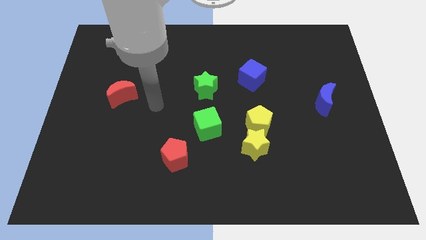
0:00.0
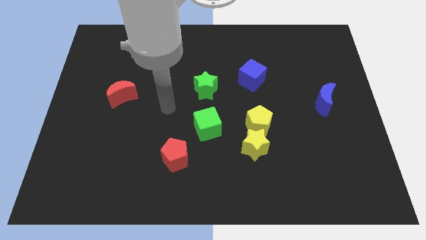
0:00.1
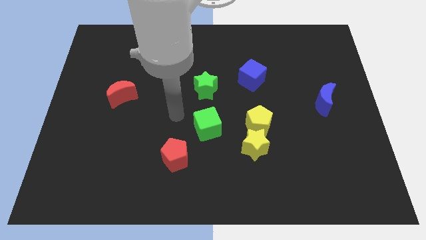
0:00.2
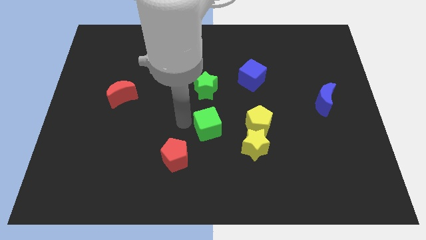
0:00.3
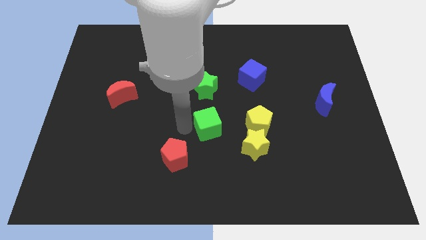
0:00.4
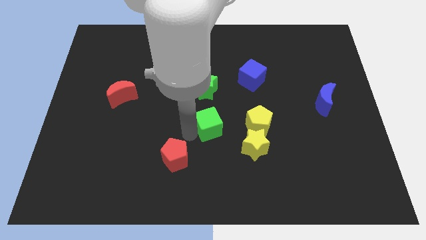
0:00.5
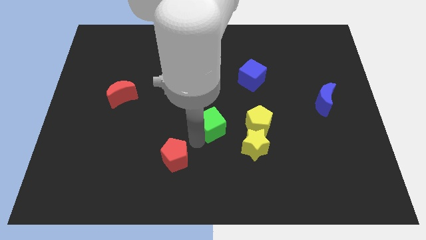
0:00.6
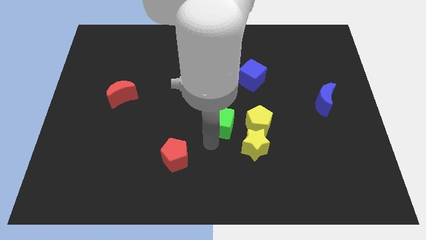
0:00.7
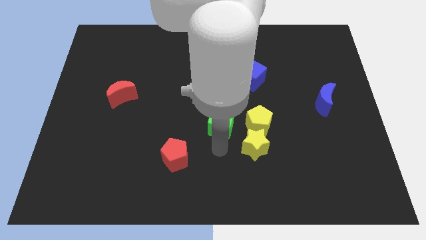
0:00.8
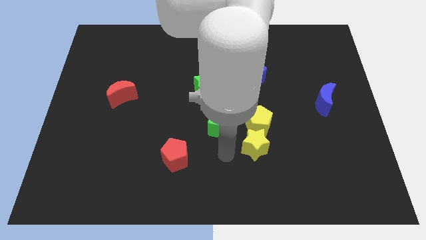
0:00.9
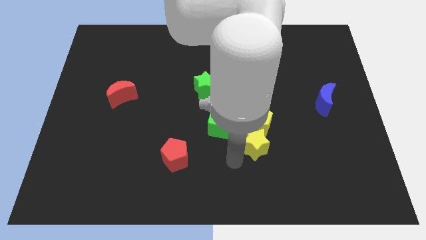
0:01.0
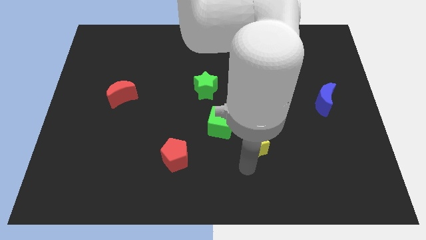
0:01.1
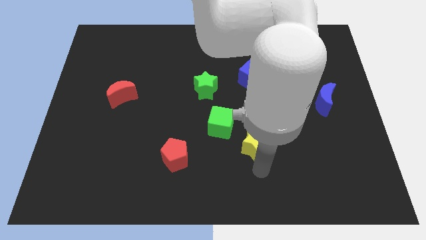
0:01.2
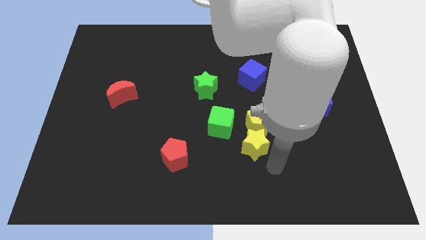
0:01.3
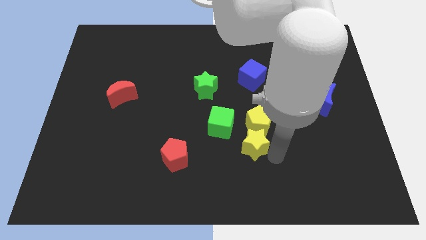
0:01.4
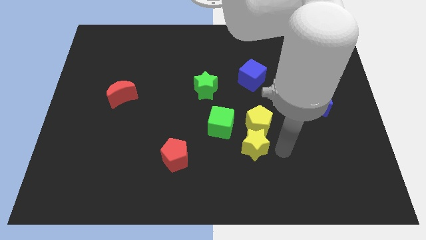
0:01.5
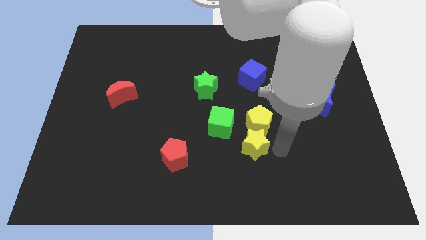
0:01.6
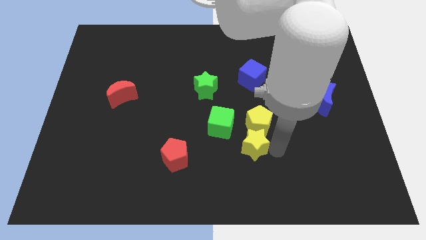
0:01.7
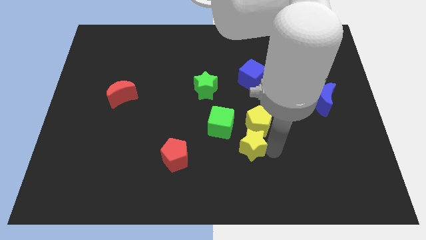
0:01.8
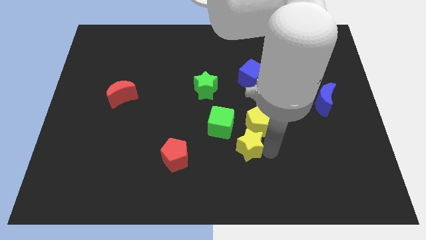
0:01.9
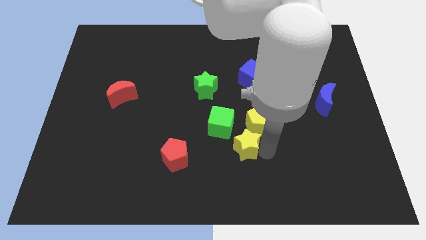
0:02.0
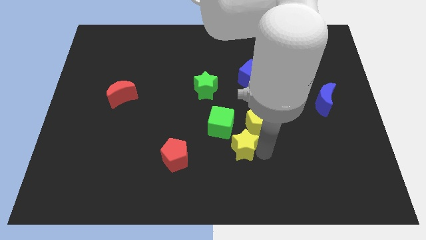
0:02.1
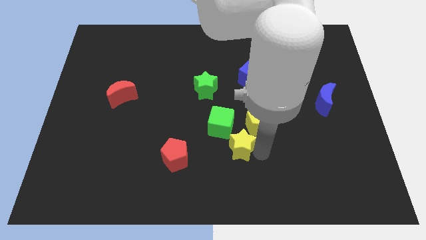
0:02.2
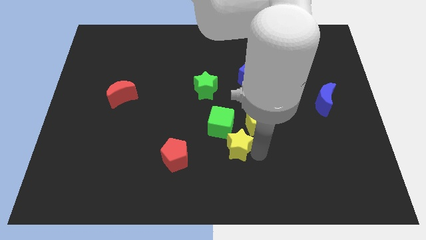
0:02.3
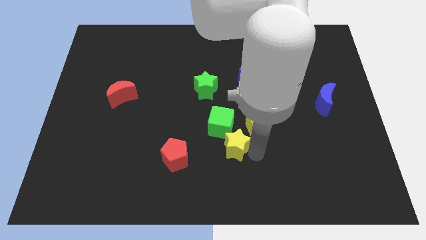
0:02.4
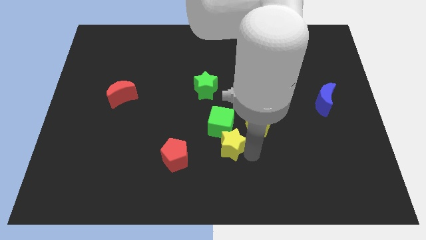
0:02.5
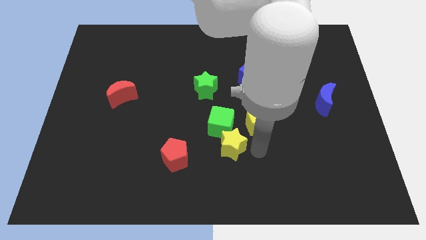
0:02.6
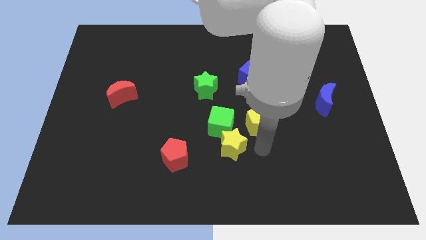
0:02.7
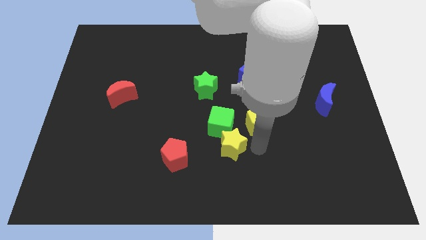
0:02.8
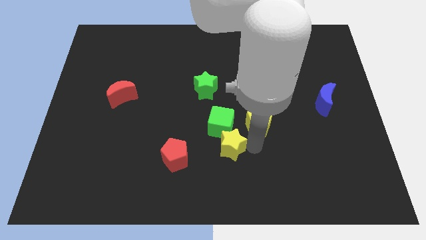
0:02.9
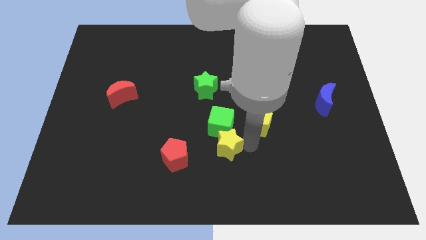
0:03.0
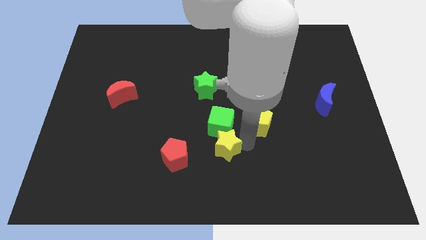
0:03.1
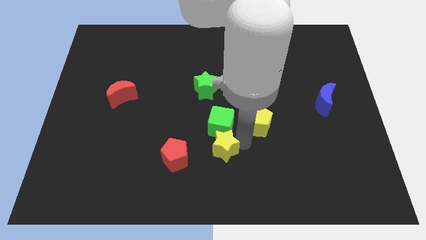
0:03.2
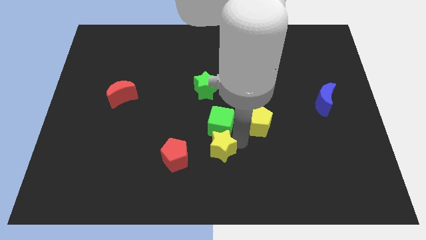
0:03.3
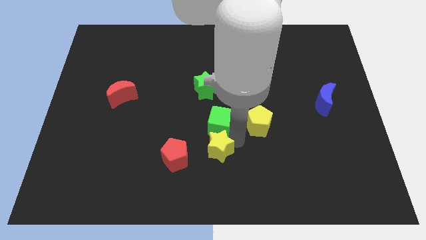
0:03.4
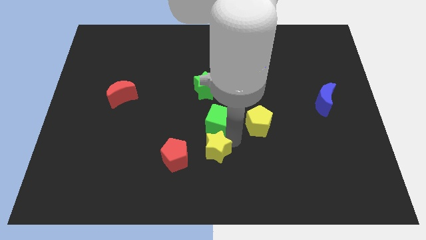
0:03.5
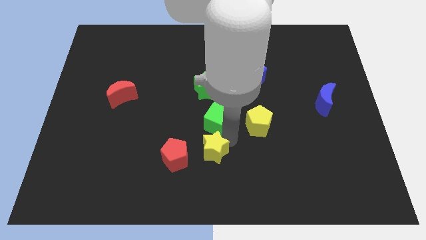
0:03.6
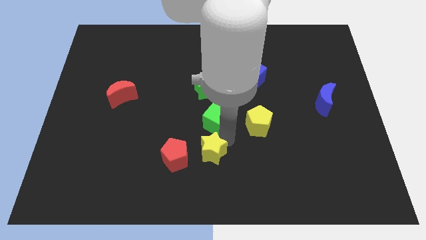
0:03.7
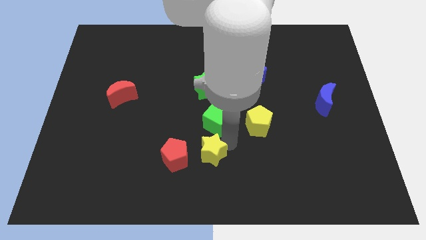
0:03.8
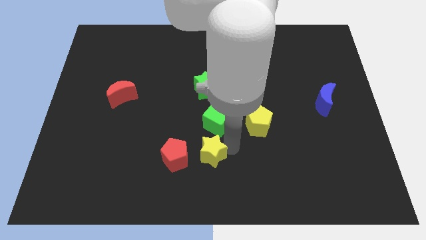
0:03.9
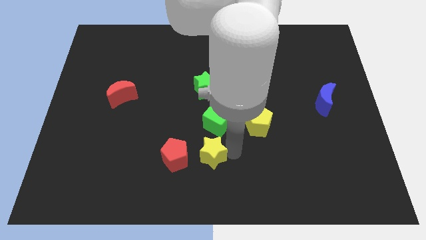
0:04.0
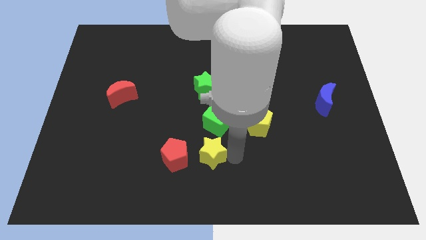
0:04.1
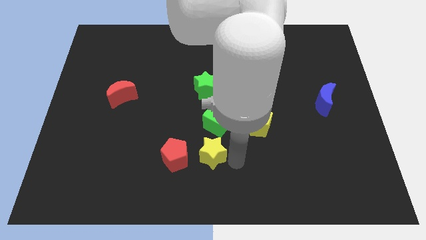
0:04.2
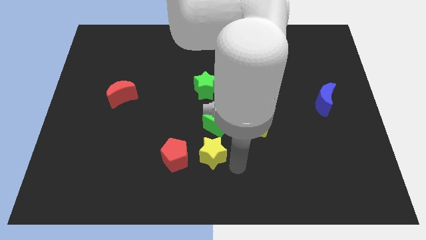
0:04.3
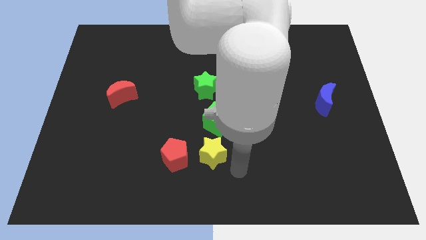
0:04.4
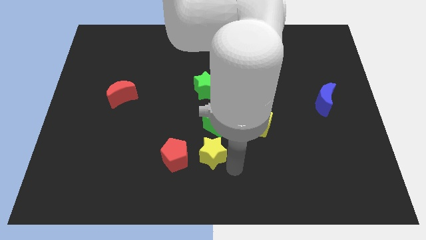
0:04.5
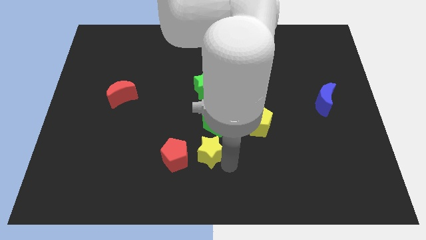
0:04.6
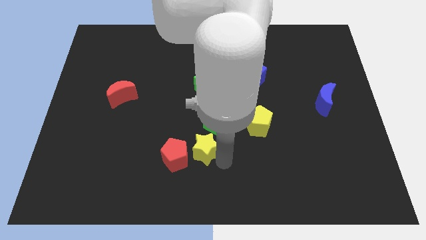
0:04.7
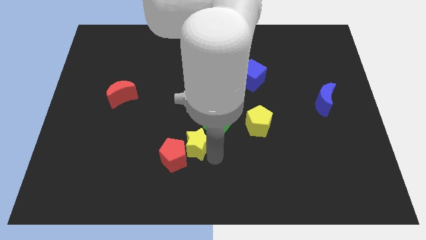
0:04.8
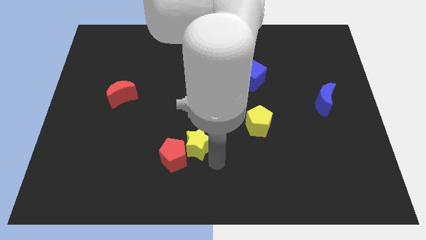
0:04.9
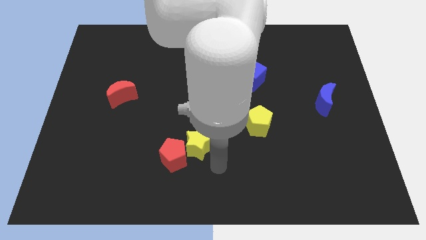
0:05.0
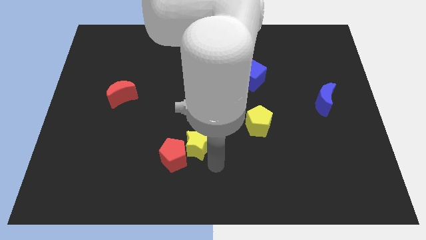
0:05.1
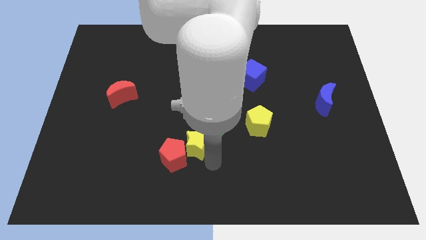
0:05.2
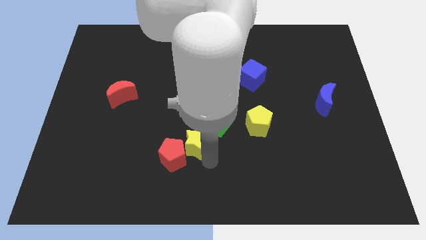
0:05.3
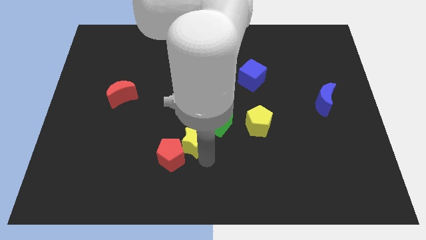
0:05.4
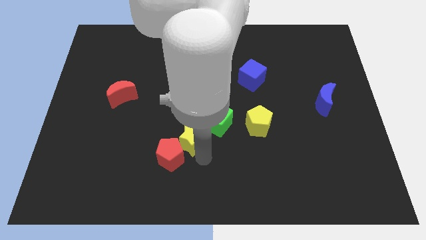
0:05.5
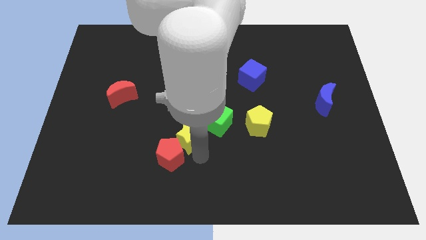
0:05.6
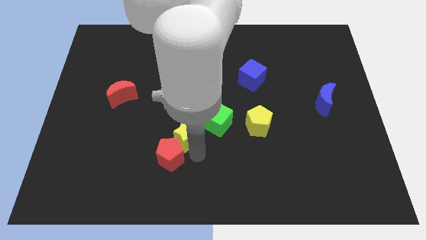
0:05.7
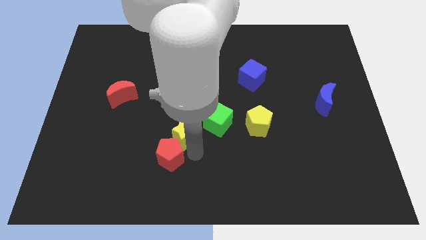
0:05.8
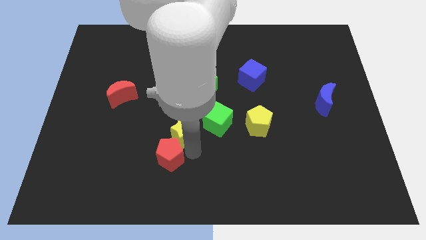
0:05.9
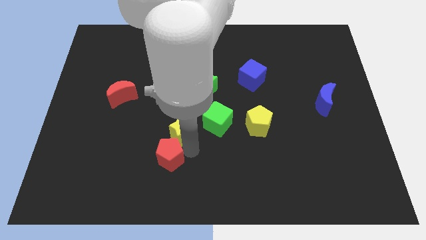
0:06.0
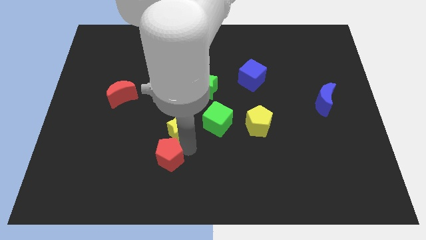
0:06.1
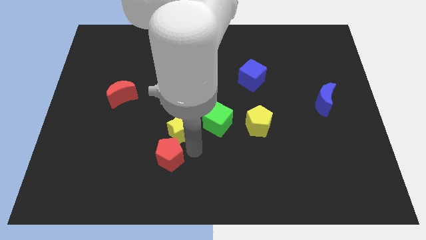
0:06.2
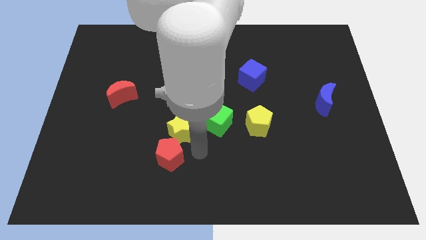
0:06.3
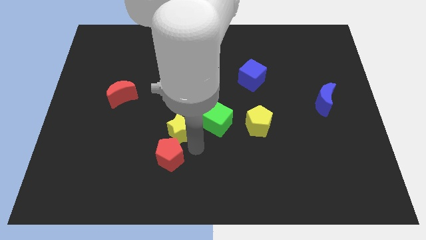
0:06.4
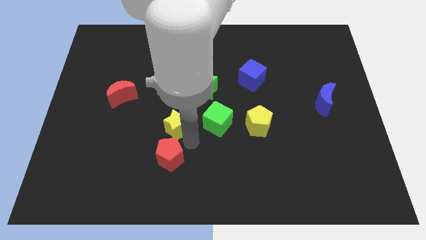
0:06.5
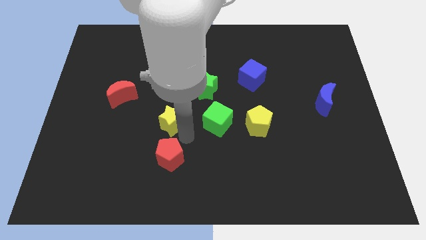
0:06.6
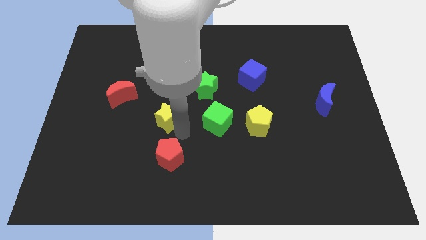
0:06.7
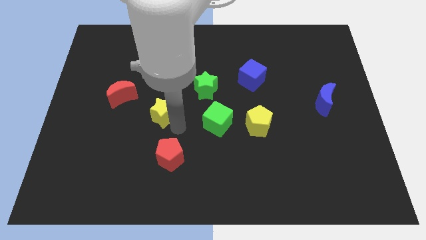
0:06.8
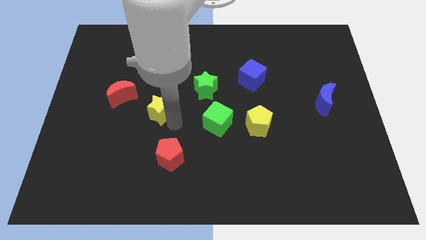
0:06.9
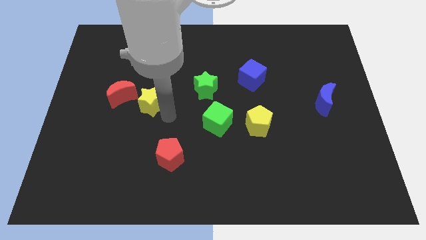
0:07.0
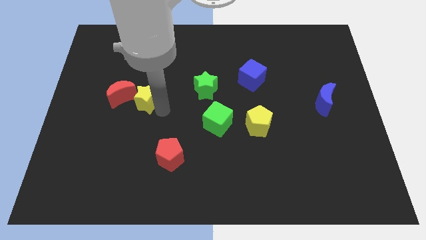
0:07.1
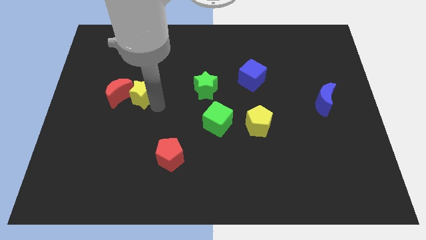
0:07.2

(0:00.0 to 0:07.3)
slide the yellow star towards the red moon
